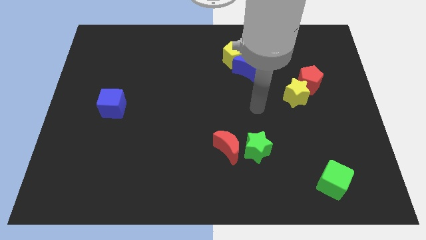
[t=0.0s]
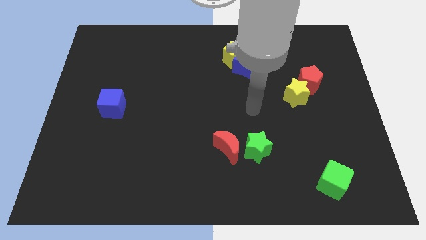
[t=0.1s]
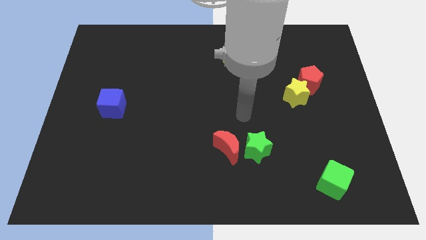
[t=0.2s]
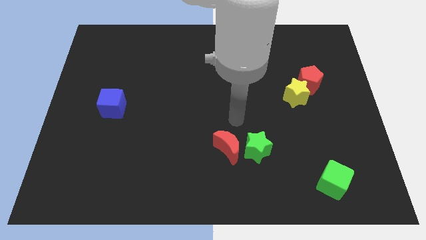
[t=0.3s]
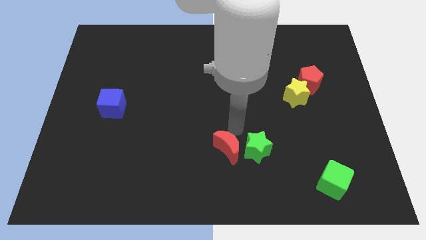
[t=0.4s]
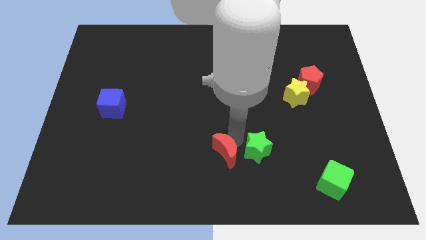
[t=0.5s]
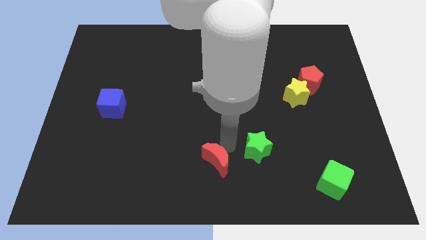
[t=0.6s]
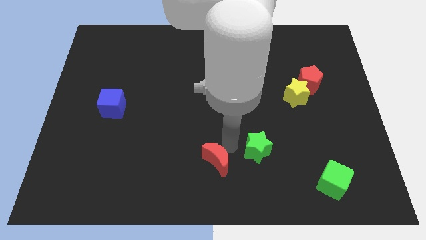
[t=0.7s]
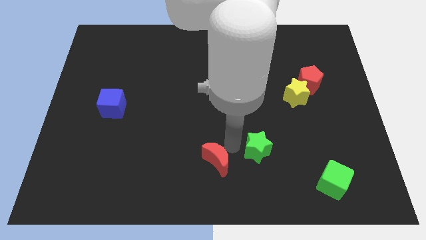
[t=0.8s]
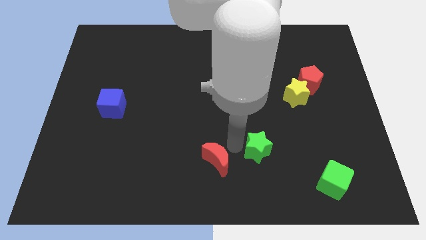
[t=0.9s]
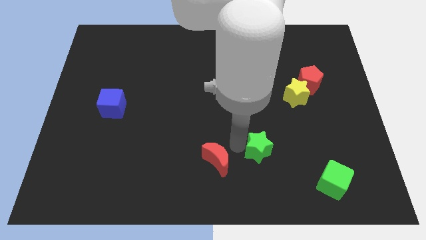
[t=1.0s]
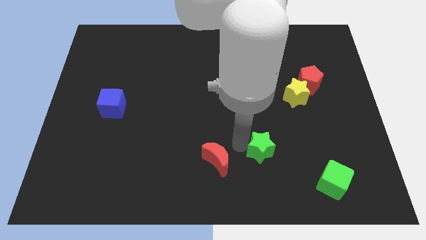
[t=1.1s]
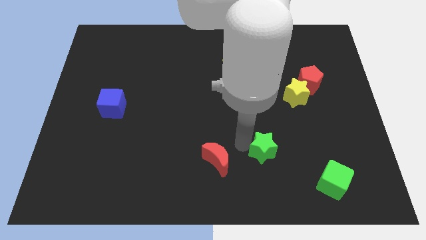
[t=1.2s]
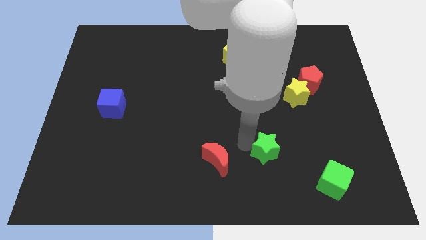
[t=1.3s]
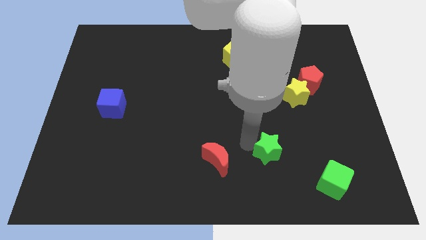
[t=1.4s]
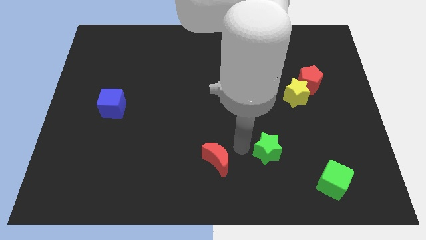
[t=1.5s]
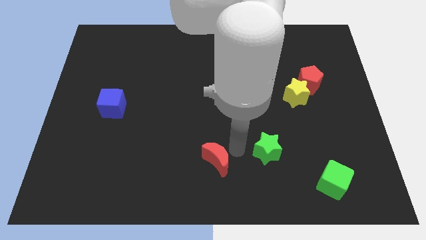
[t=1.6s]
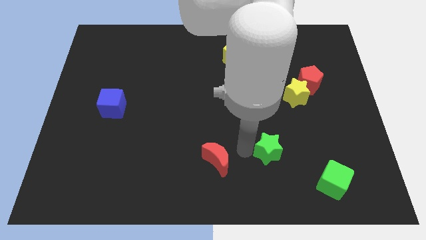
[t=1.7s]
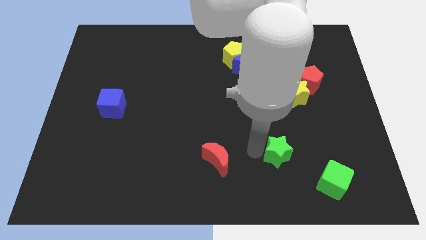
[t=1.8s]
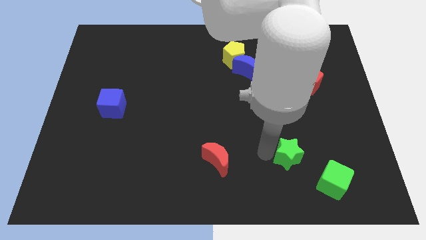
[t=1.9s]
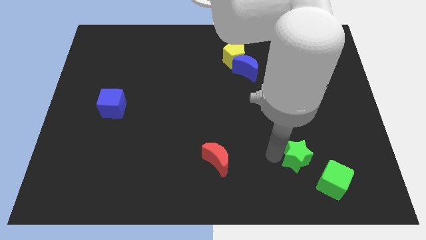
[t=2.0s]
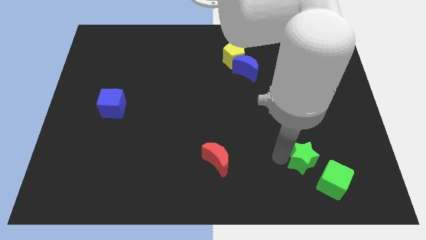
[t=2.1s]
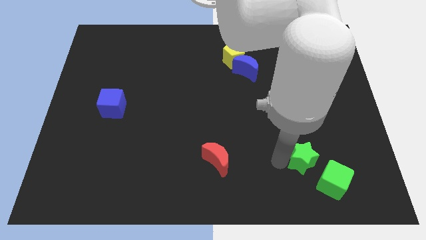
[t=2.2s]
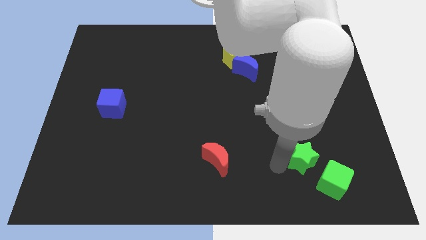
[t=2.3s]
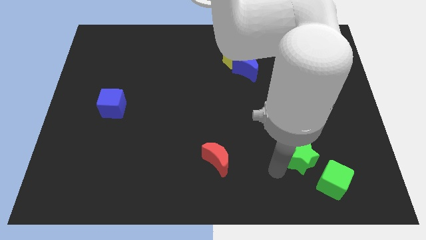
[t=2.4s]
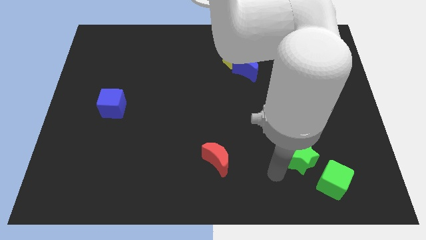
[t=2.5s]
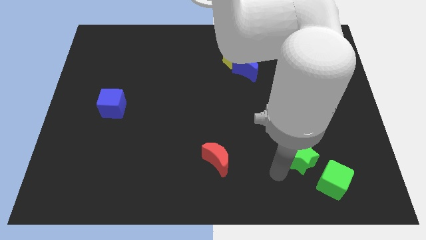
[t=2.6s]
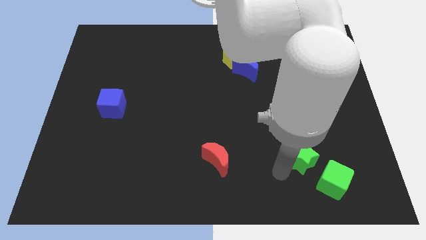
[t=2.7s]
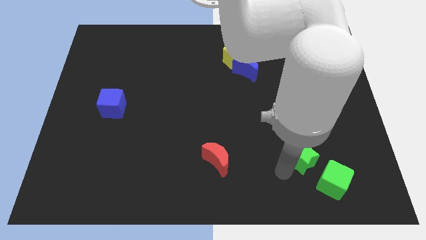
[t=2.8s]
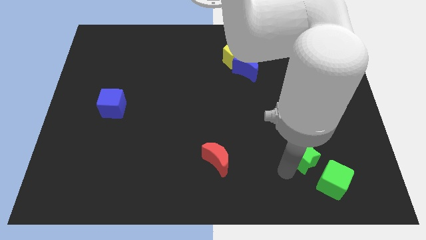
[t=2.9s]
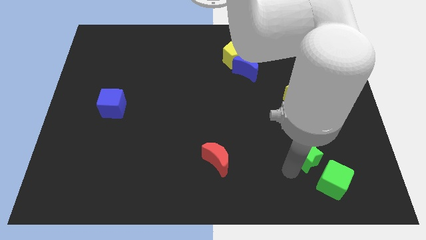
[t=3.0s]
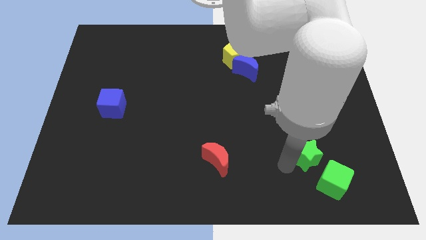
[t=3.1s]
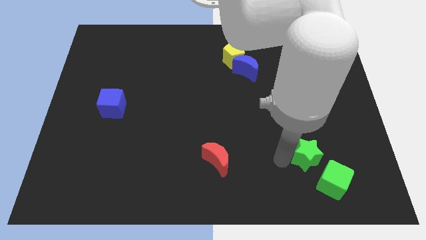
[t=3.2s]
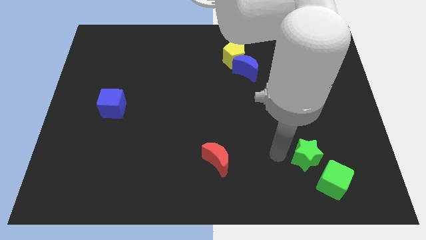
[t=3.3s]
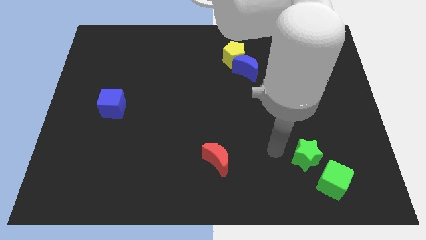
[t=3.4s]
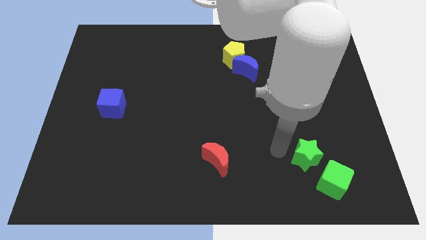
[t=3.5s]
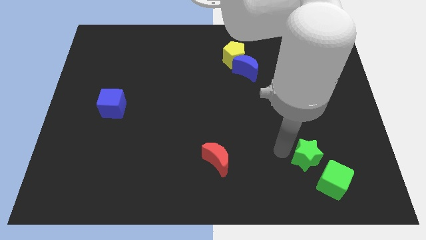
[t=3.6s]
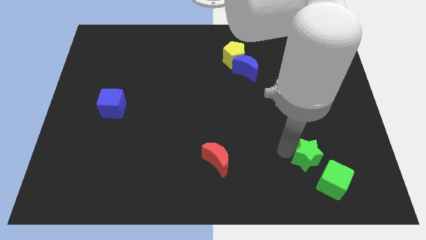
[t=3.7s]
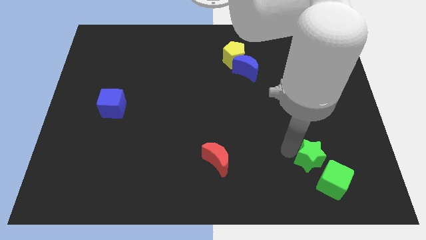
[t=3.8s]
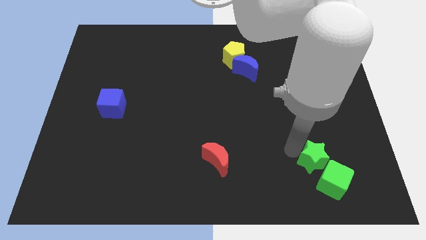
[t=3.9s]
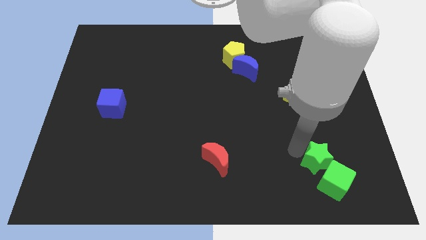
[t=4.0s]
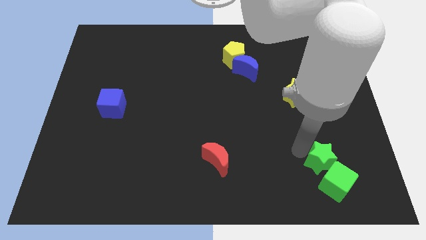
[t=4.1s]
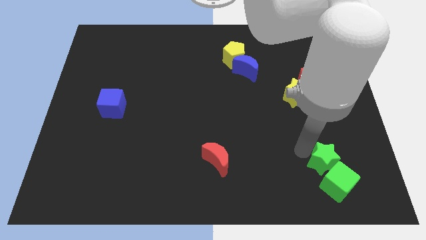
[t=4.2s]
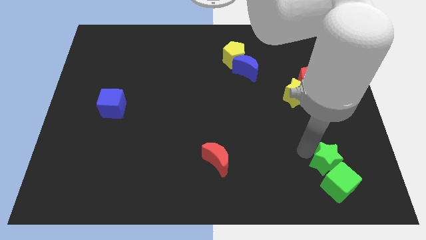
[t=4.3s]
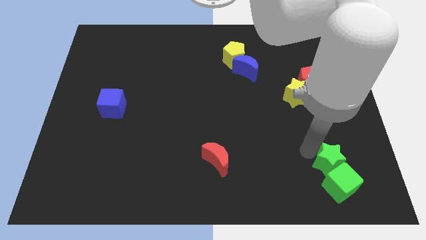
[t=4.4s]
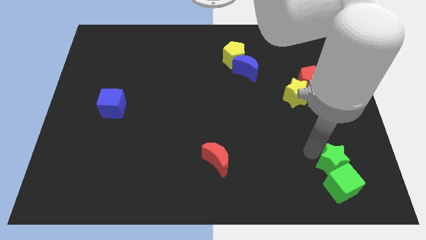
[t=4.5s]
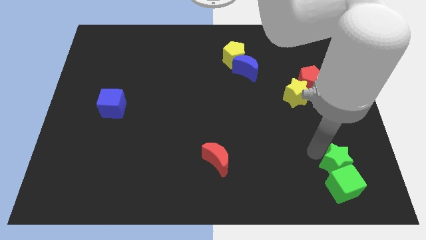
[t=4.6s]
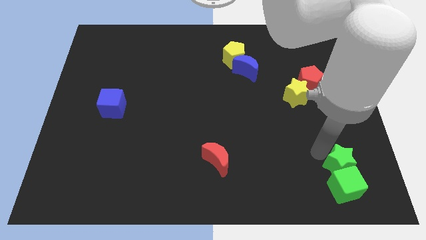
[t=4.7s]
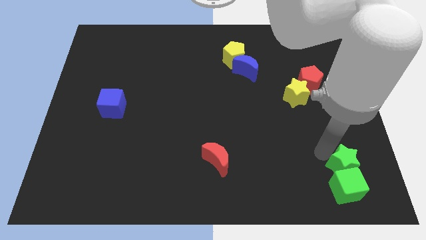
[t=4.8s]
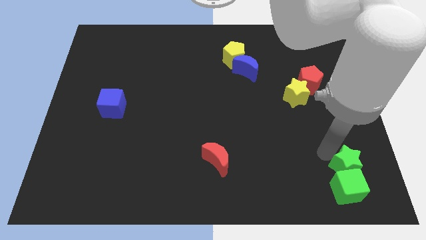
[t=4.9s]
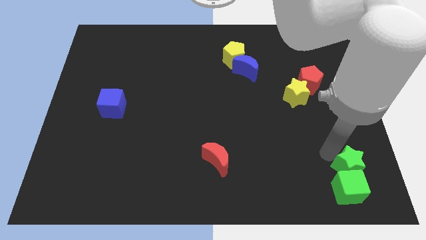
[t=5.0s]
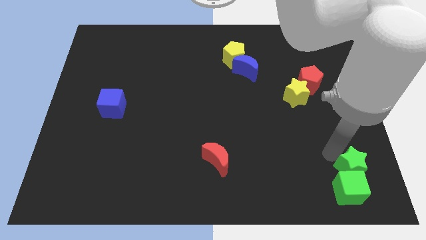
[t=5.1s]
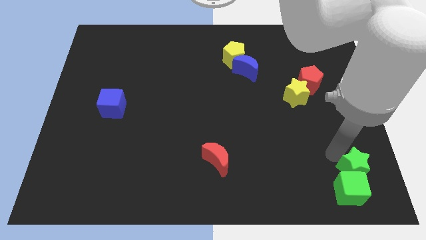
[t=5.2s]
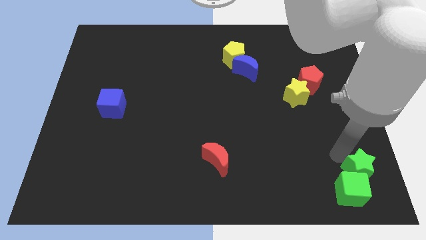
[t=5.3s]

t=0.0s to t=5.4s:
move the green star to the bottom right of the board

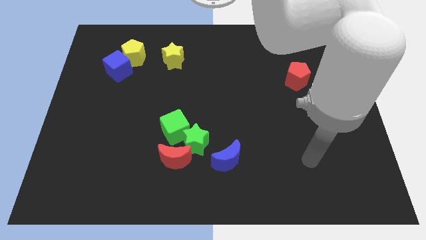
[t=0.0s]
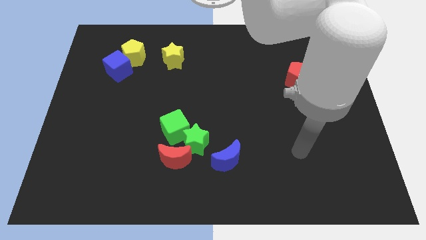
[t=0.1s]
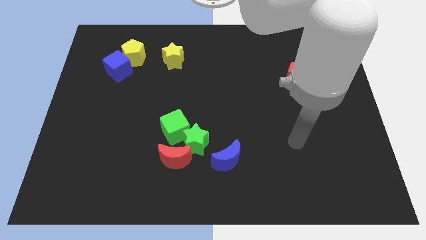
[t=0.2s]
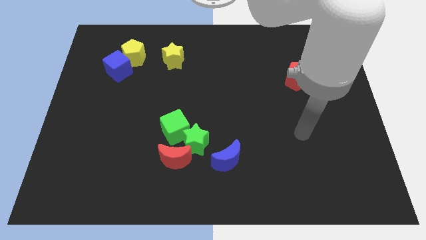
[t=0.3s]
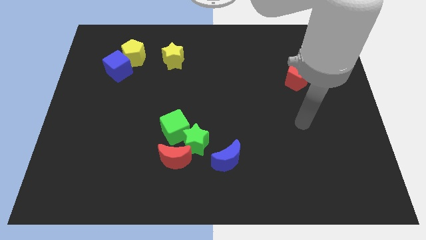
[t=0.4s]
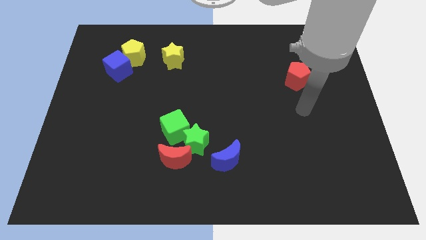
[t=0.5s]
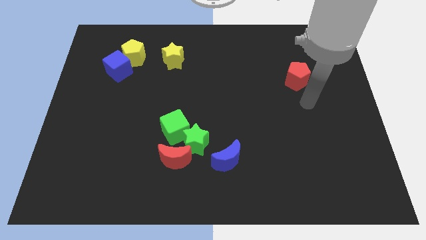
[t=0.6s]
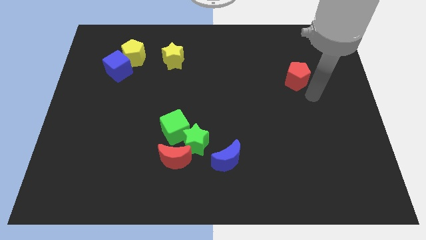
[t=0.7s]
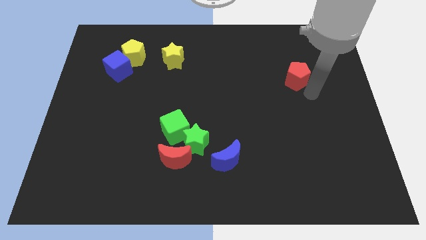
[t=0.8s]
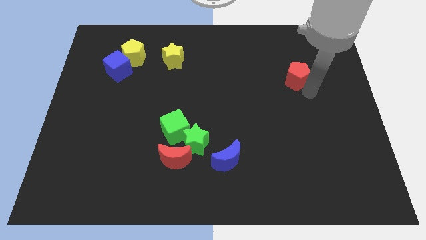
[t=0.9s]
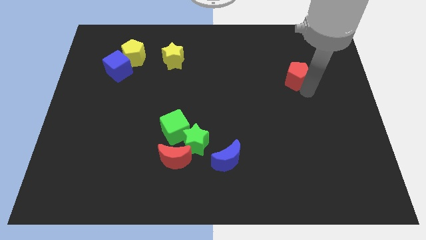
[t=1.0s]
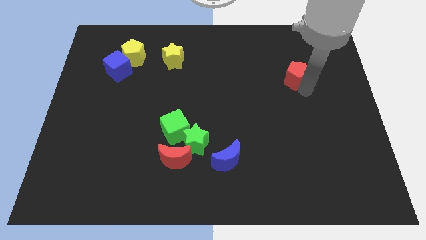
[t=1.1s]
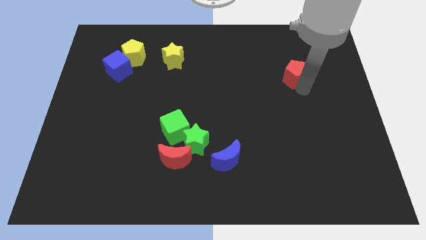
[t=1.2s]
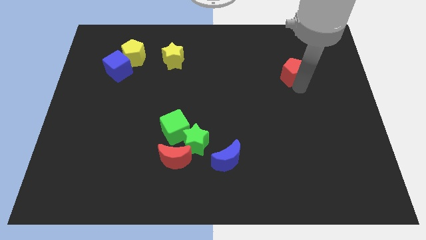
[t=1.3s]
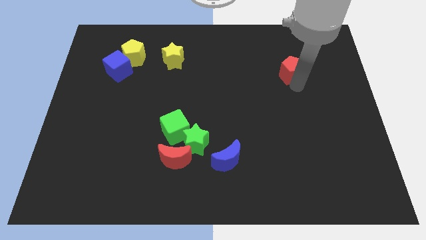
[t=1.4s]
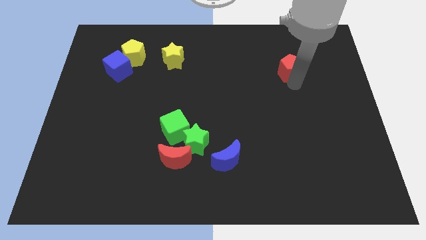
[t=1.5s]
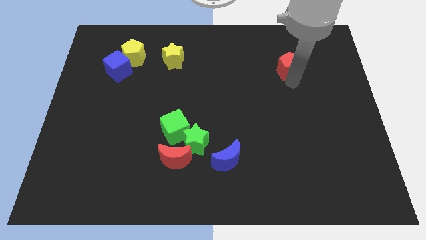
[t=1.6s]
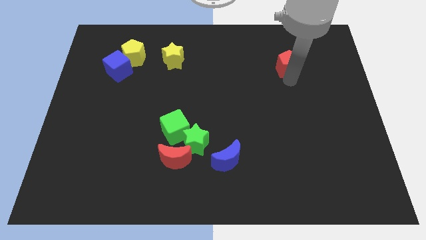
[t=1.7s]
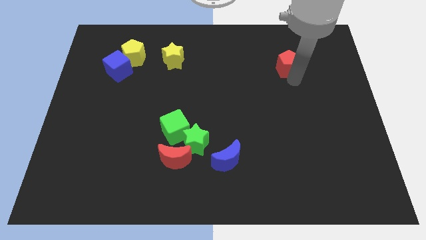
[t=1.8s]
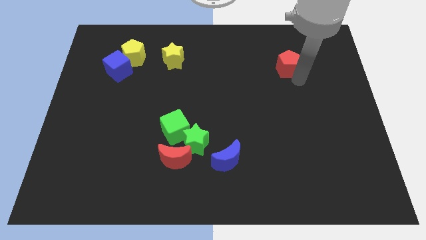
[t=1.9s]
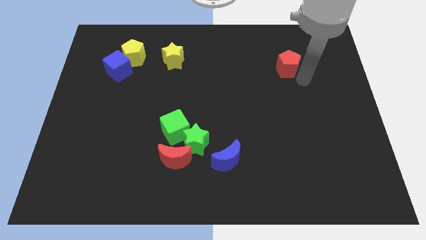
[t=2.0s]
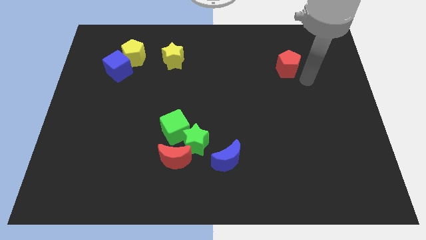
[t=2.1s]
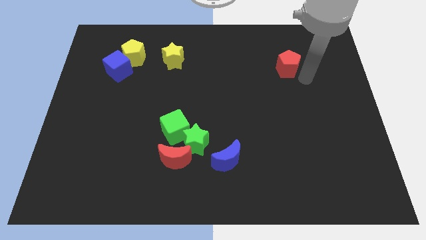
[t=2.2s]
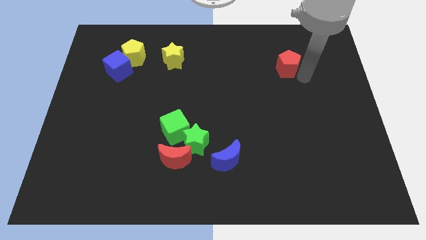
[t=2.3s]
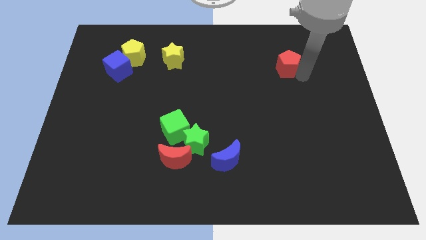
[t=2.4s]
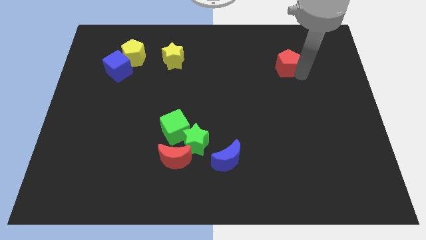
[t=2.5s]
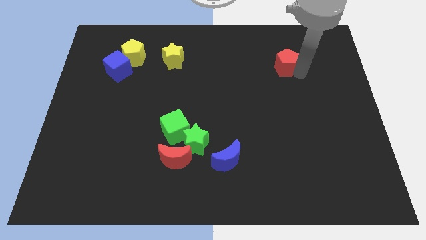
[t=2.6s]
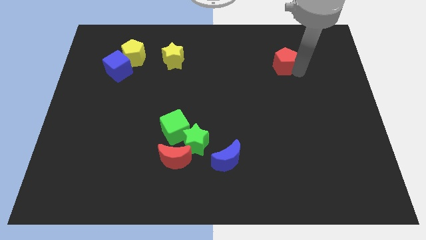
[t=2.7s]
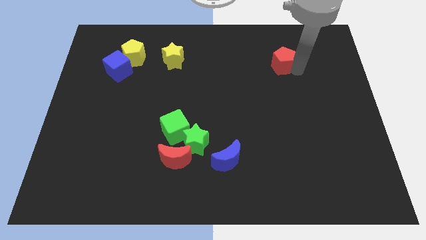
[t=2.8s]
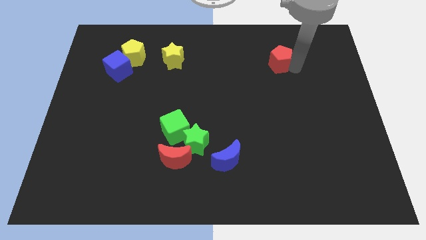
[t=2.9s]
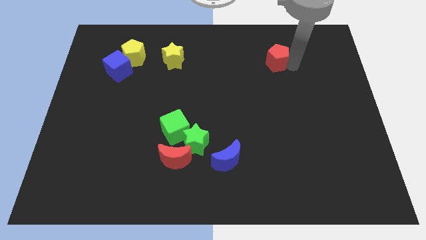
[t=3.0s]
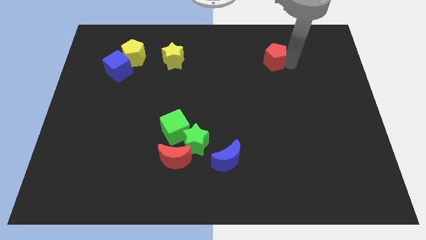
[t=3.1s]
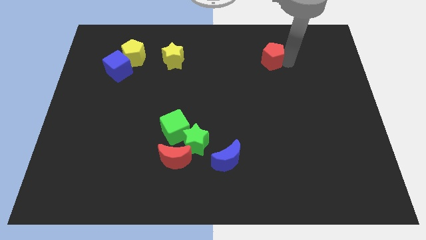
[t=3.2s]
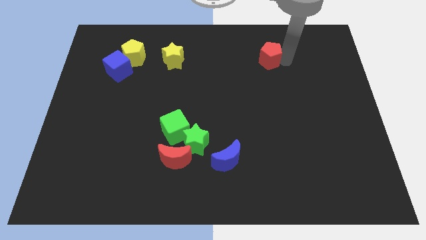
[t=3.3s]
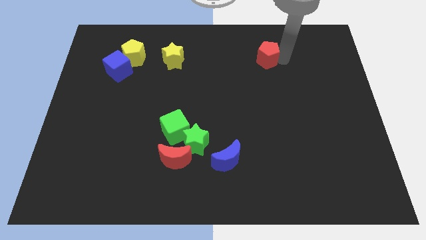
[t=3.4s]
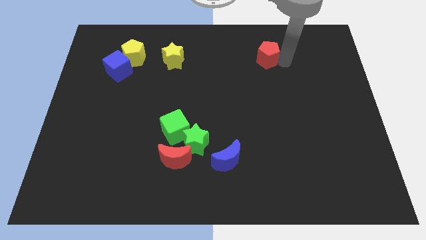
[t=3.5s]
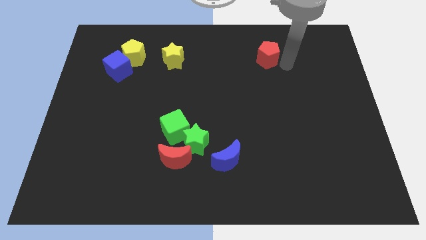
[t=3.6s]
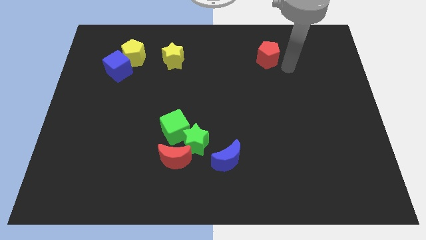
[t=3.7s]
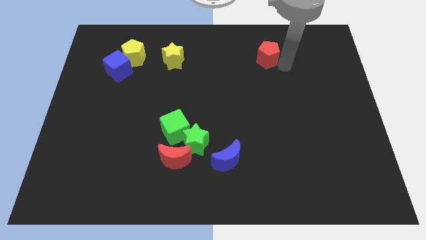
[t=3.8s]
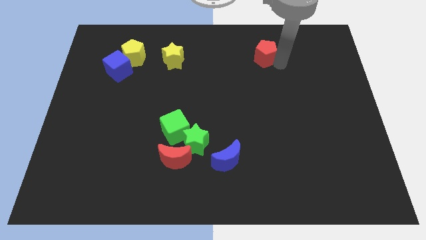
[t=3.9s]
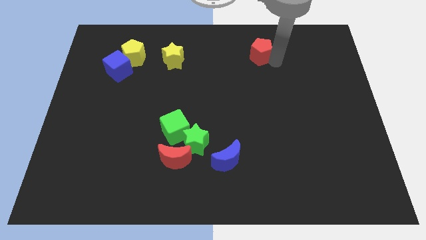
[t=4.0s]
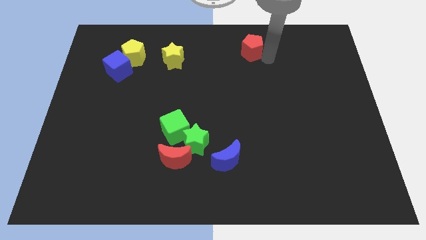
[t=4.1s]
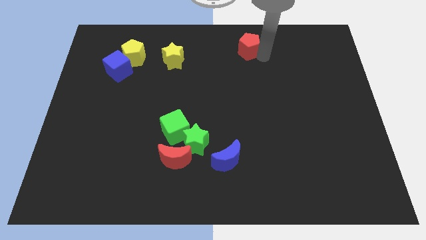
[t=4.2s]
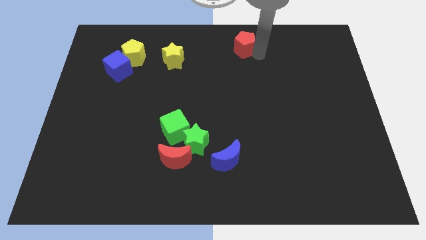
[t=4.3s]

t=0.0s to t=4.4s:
push the red pentagon to the towards your base
